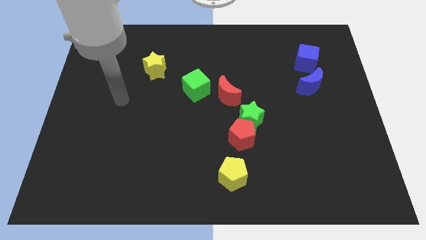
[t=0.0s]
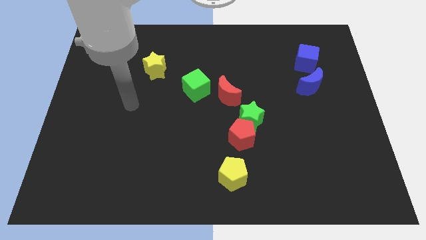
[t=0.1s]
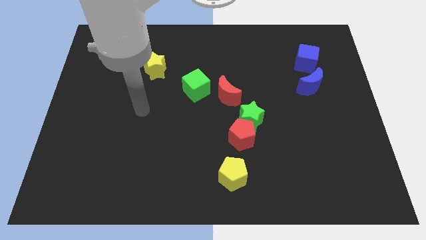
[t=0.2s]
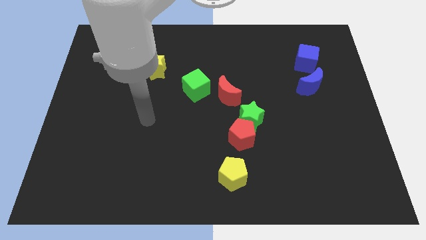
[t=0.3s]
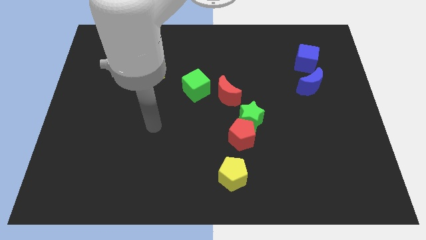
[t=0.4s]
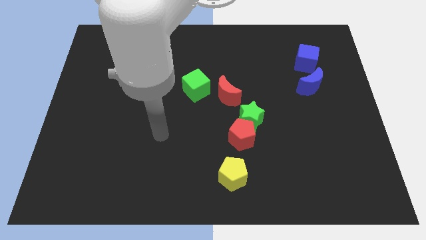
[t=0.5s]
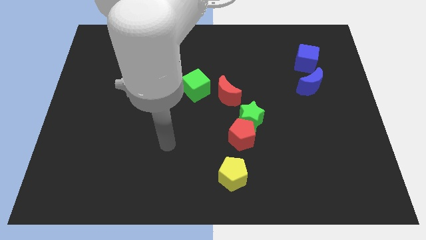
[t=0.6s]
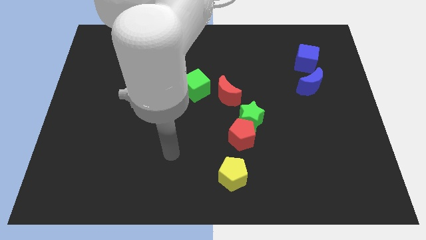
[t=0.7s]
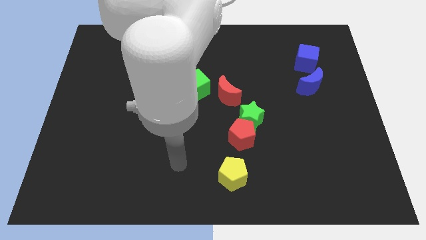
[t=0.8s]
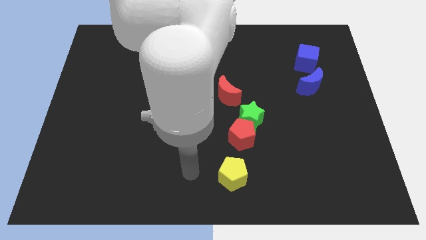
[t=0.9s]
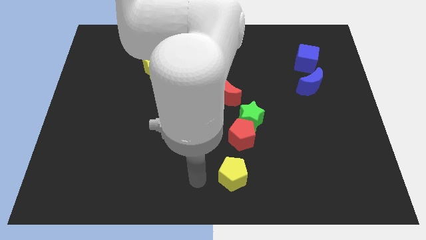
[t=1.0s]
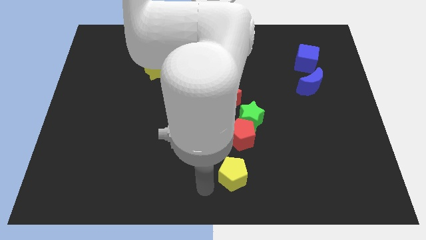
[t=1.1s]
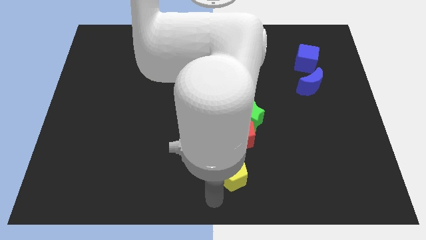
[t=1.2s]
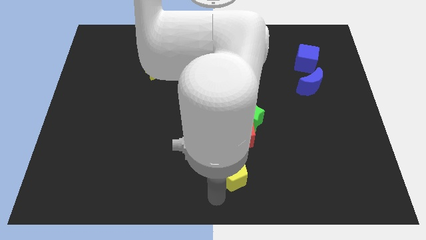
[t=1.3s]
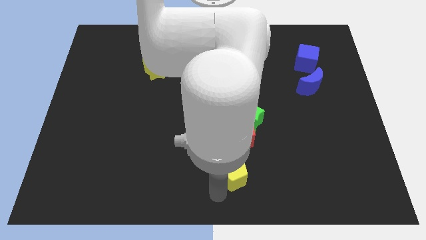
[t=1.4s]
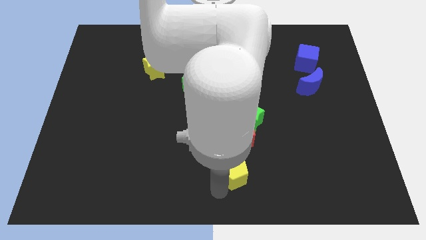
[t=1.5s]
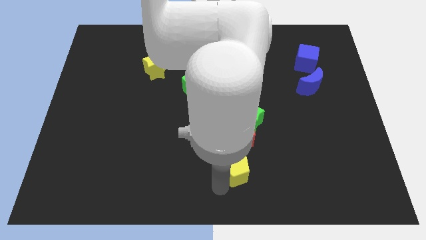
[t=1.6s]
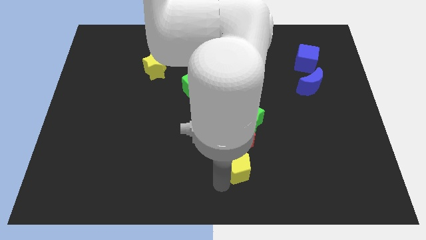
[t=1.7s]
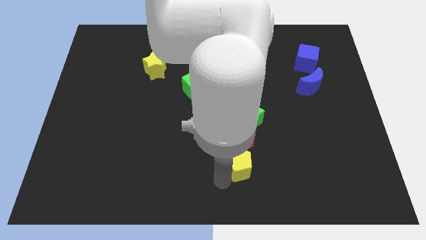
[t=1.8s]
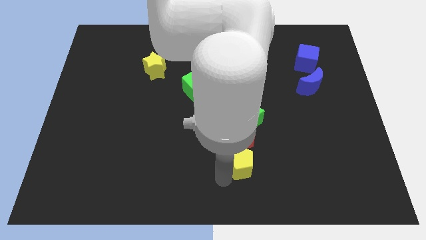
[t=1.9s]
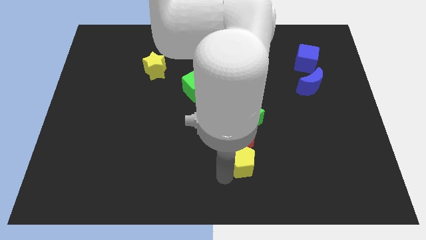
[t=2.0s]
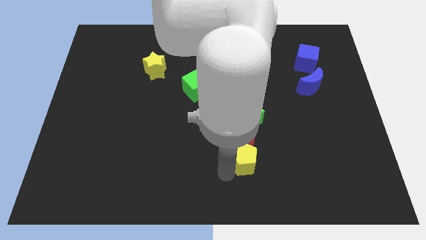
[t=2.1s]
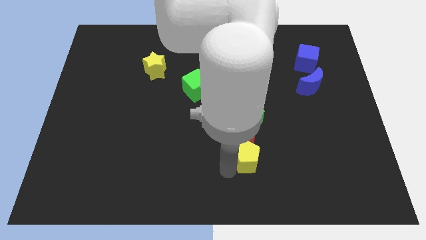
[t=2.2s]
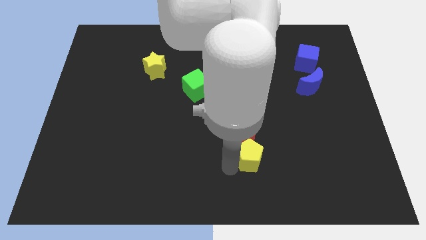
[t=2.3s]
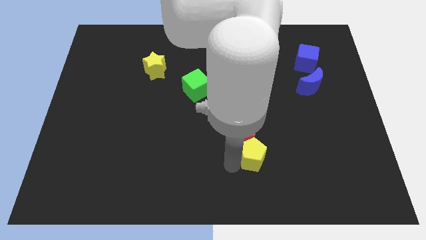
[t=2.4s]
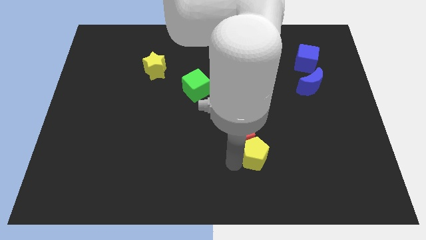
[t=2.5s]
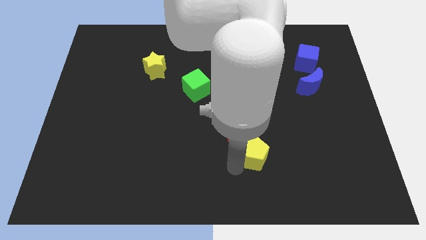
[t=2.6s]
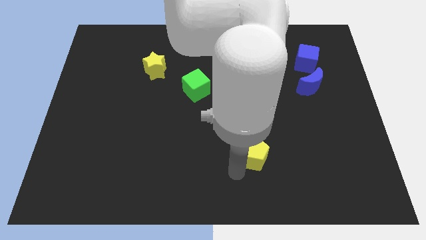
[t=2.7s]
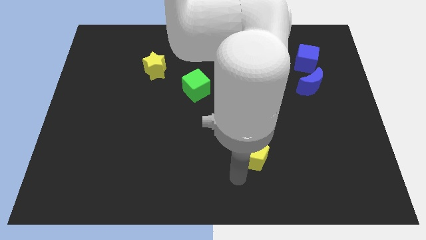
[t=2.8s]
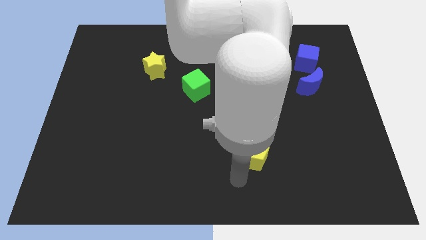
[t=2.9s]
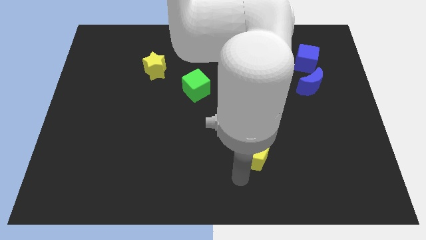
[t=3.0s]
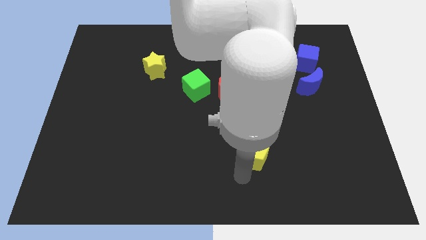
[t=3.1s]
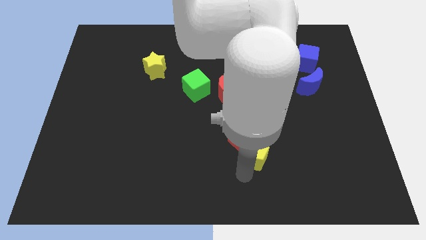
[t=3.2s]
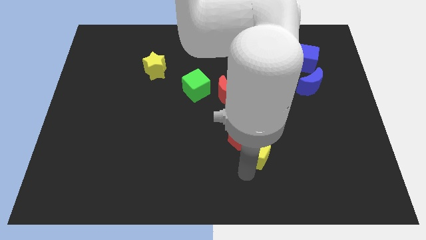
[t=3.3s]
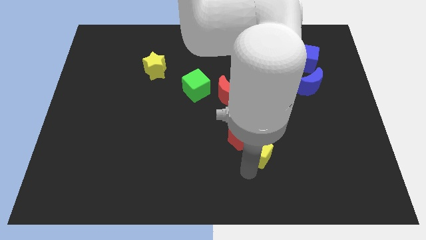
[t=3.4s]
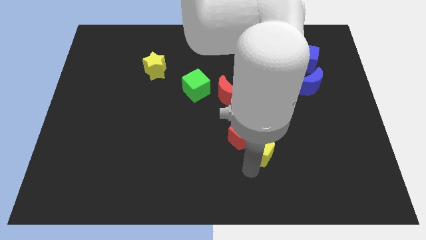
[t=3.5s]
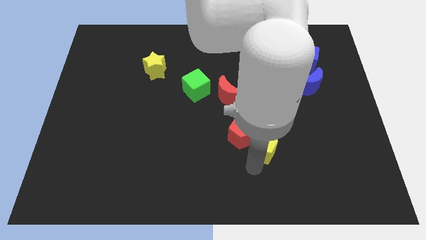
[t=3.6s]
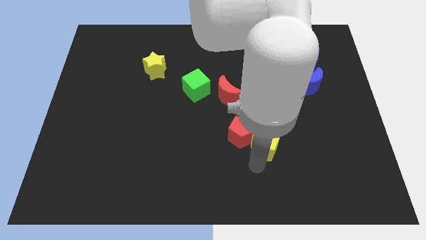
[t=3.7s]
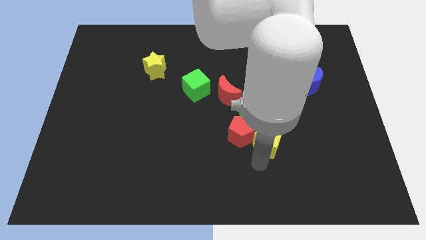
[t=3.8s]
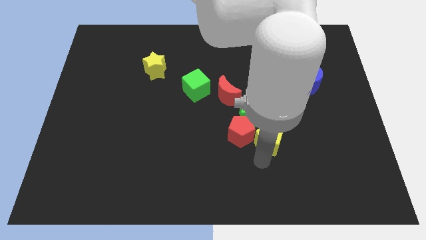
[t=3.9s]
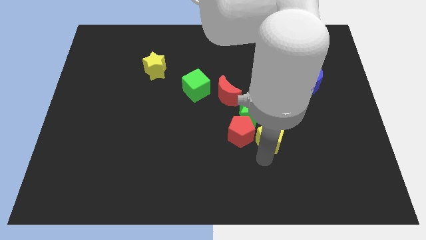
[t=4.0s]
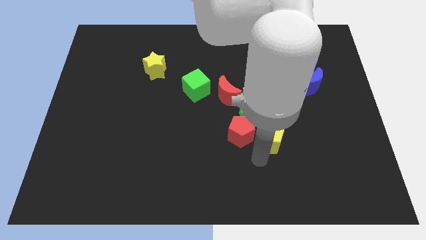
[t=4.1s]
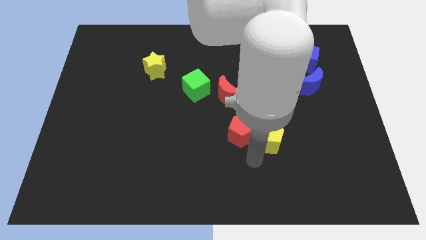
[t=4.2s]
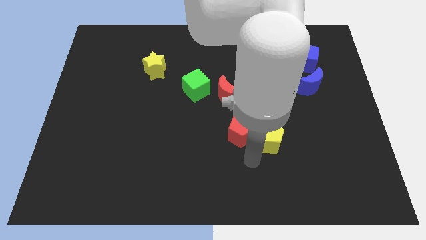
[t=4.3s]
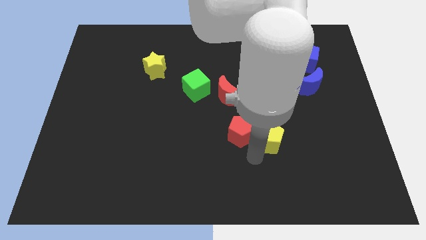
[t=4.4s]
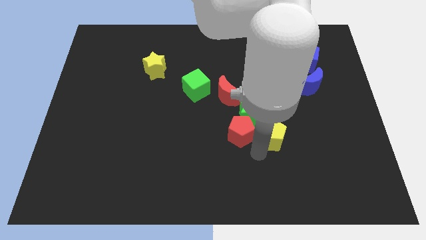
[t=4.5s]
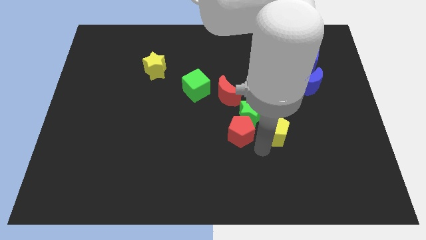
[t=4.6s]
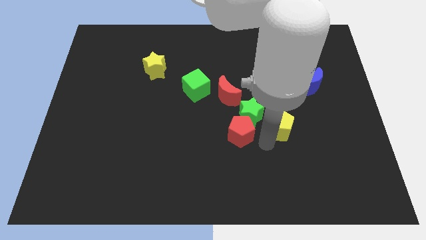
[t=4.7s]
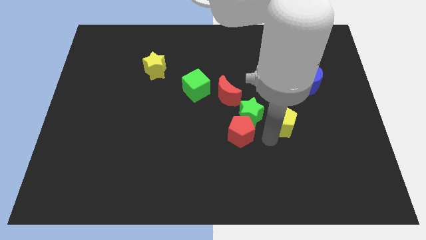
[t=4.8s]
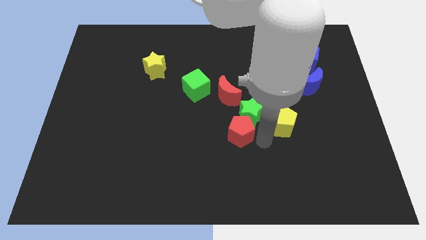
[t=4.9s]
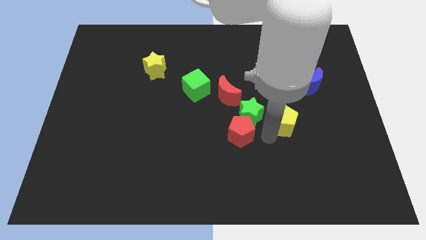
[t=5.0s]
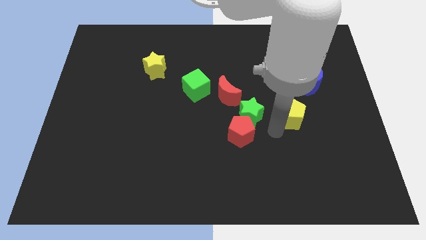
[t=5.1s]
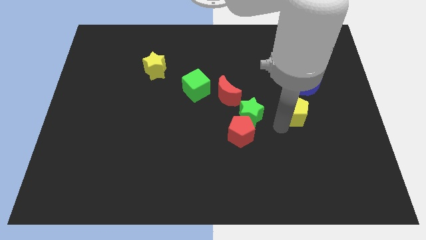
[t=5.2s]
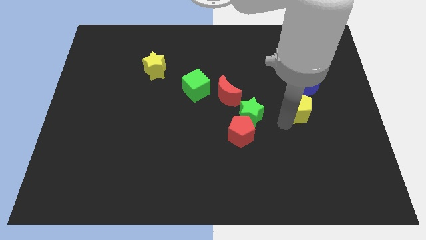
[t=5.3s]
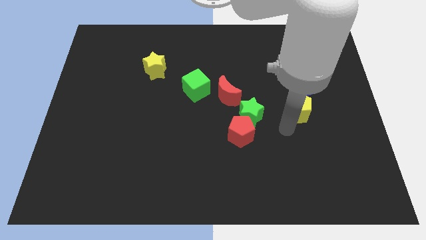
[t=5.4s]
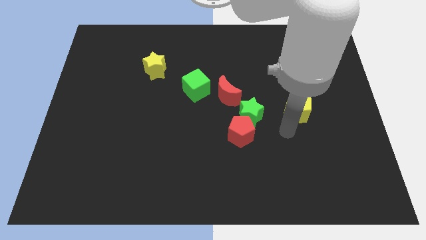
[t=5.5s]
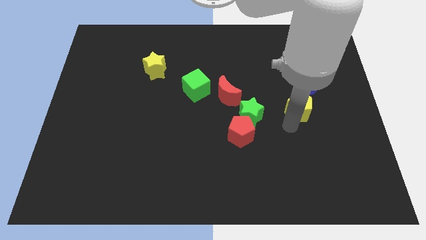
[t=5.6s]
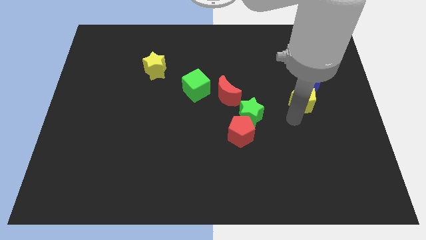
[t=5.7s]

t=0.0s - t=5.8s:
push the yellow pentagon next to the blue moon

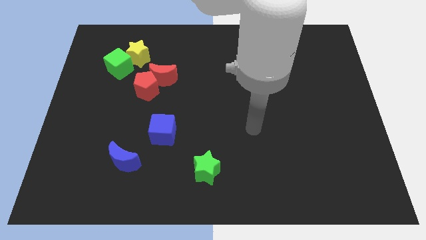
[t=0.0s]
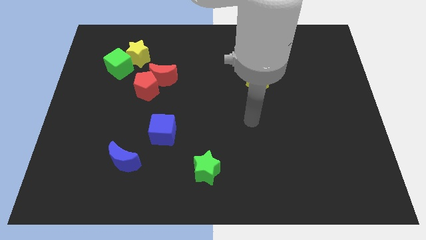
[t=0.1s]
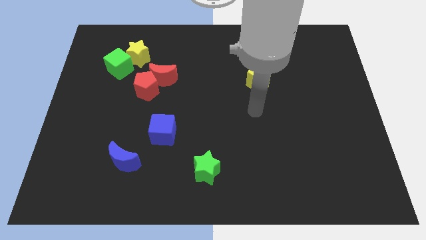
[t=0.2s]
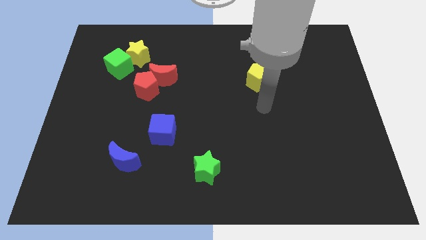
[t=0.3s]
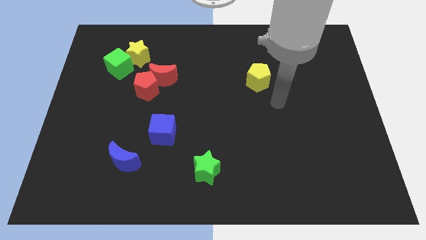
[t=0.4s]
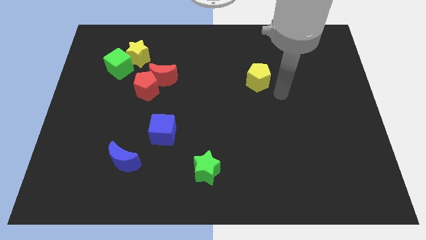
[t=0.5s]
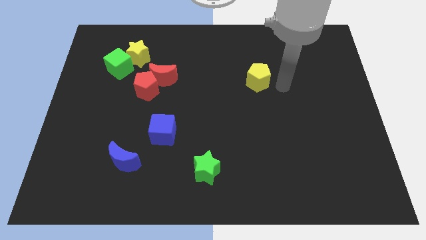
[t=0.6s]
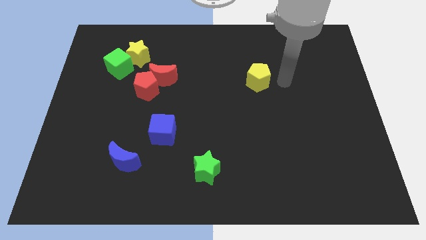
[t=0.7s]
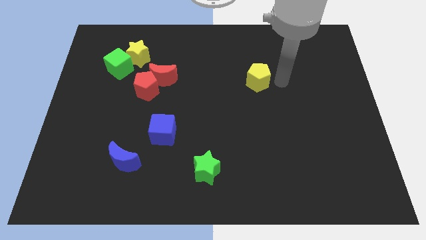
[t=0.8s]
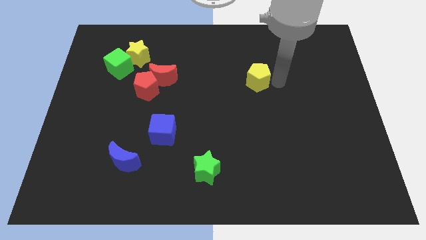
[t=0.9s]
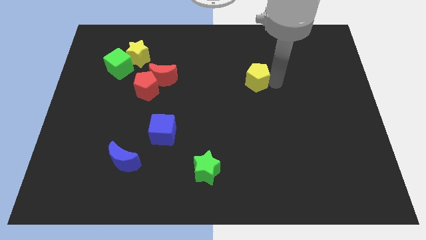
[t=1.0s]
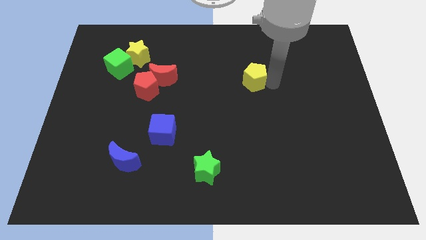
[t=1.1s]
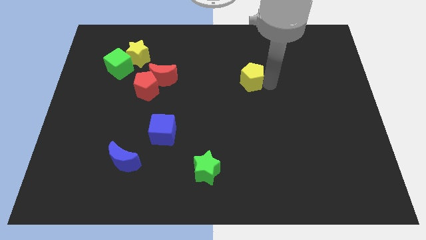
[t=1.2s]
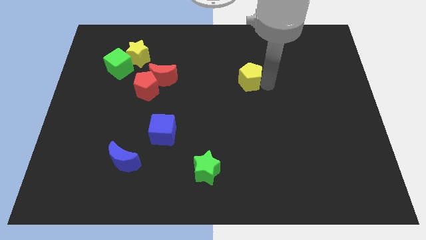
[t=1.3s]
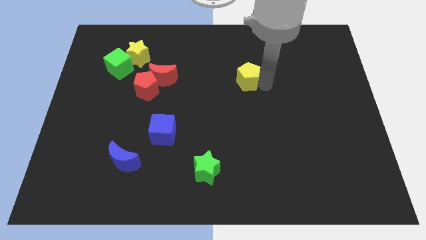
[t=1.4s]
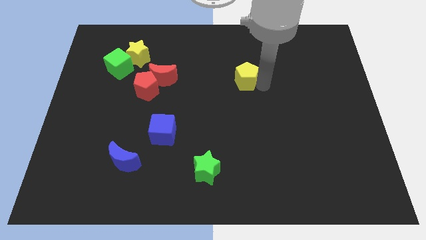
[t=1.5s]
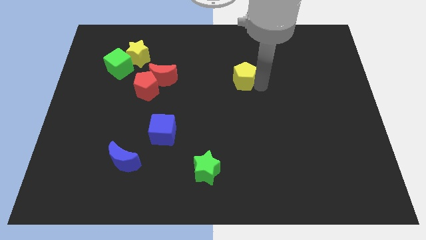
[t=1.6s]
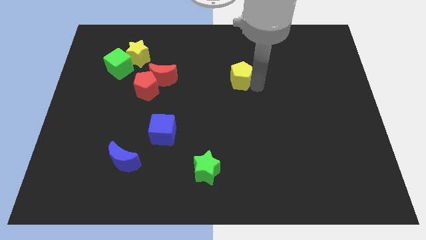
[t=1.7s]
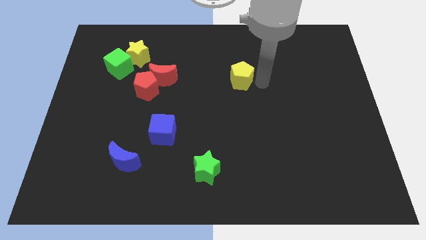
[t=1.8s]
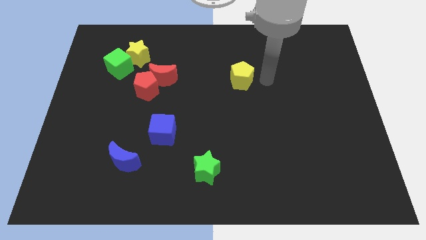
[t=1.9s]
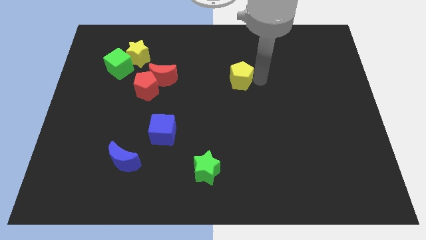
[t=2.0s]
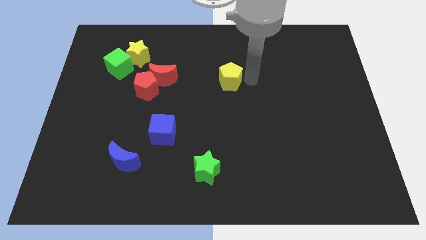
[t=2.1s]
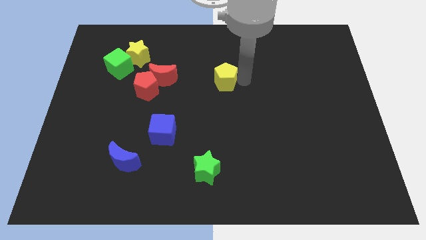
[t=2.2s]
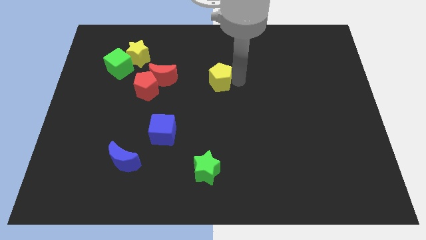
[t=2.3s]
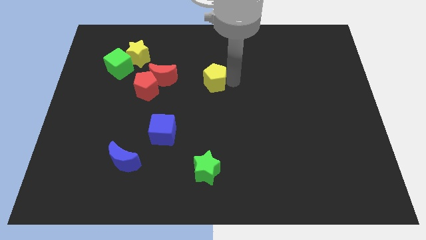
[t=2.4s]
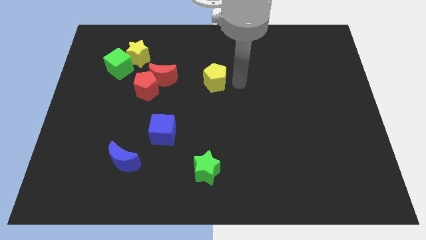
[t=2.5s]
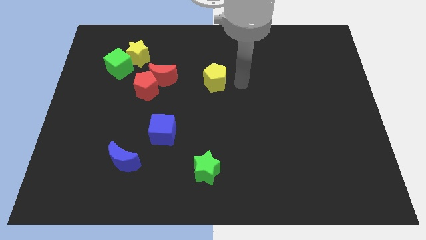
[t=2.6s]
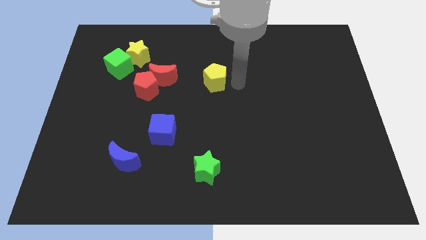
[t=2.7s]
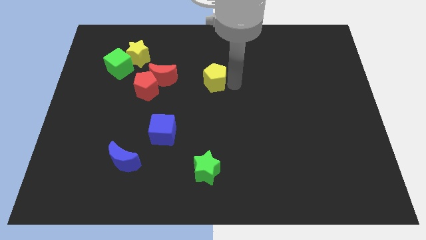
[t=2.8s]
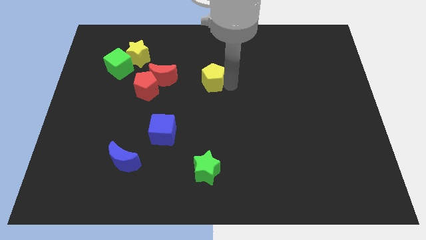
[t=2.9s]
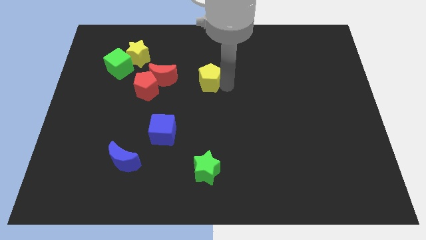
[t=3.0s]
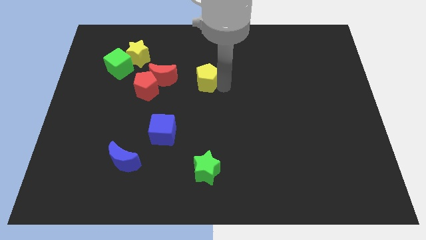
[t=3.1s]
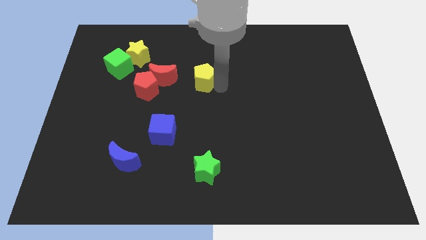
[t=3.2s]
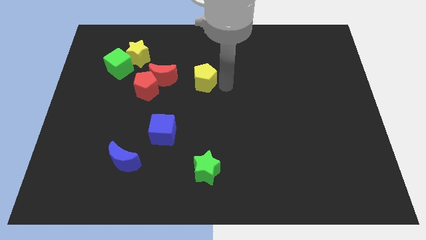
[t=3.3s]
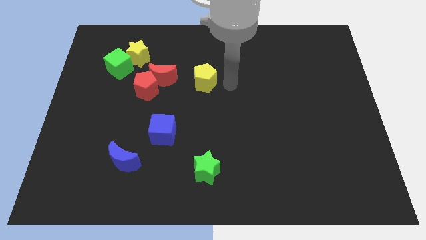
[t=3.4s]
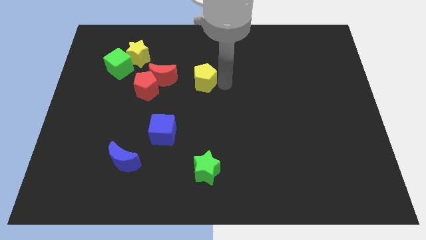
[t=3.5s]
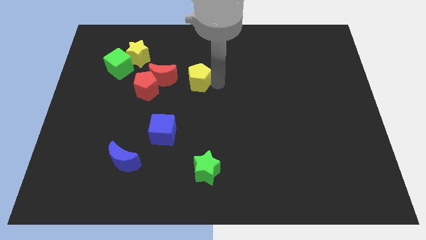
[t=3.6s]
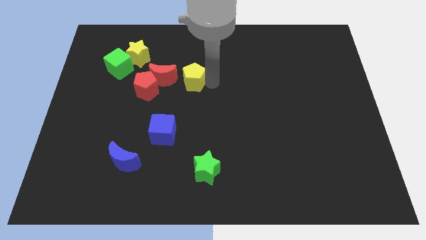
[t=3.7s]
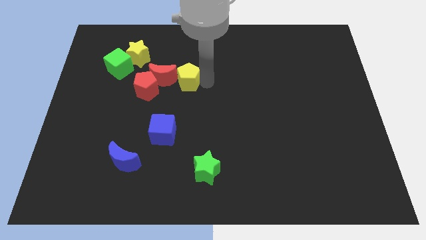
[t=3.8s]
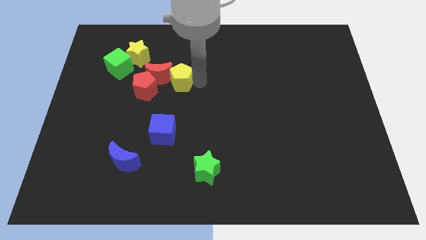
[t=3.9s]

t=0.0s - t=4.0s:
slide the yellow pentagon close to the red moon
